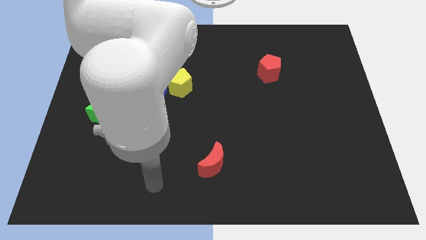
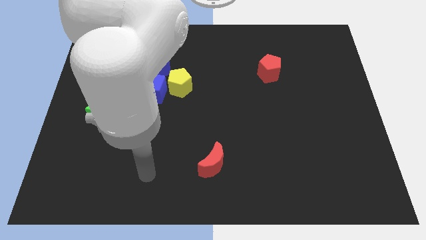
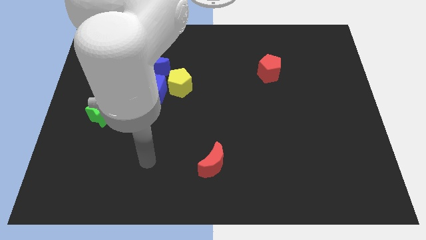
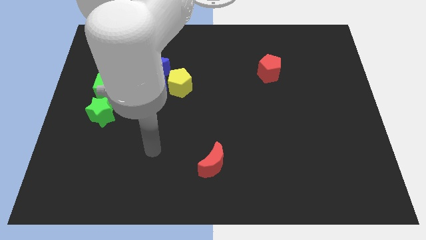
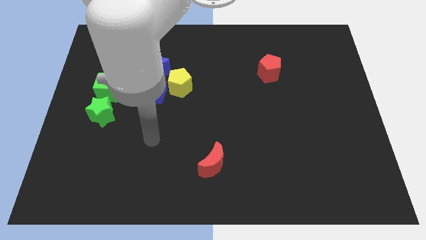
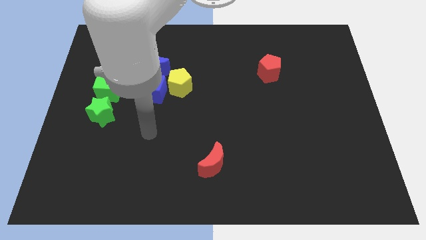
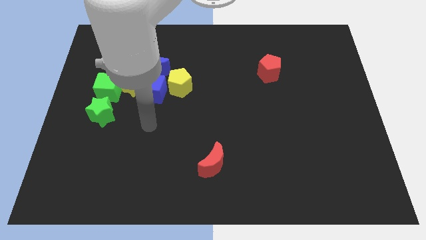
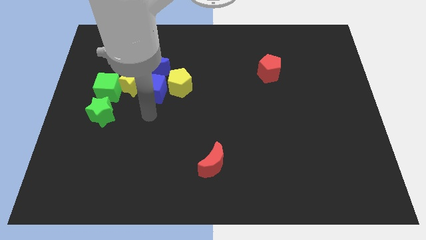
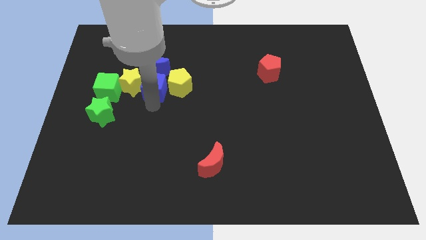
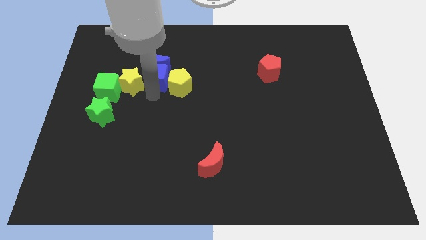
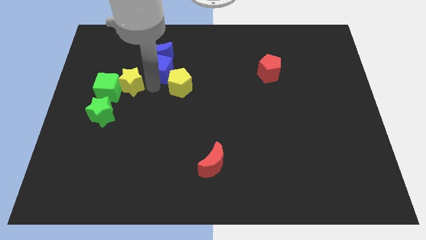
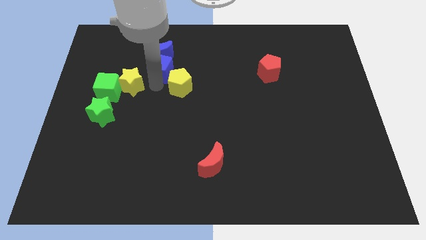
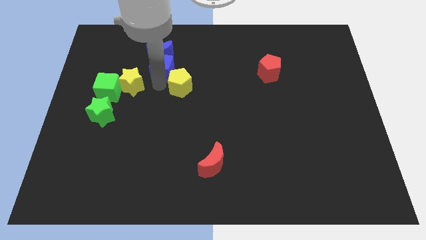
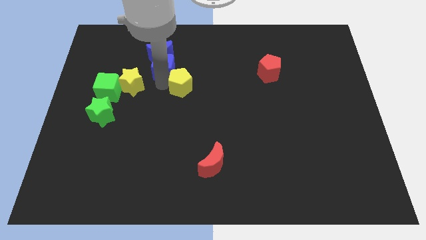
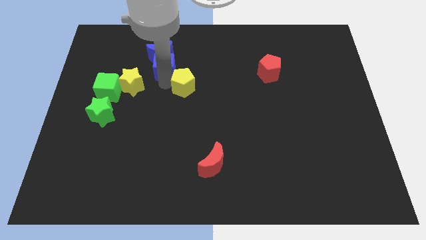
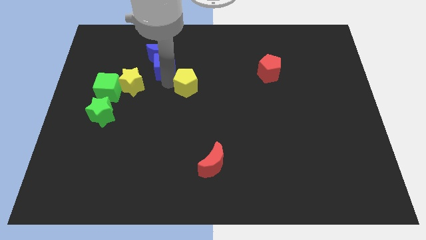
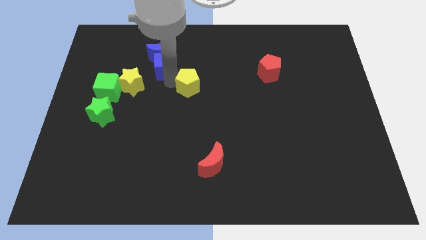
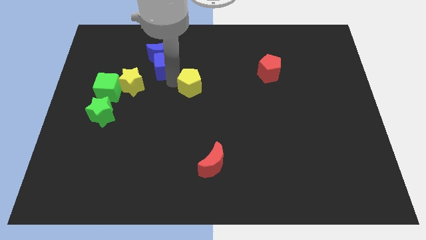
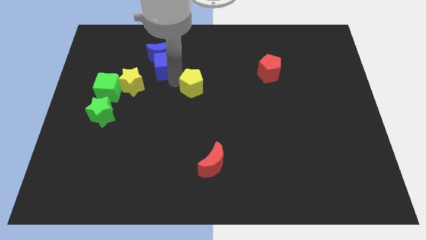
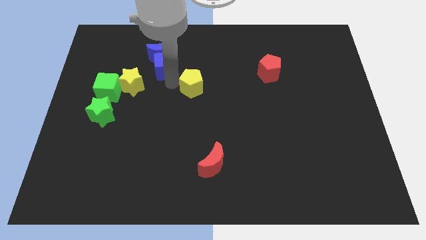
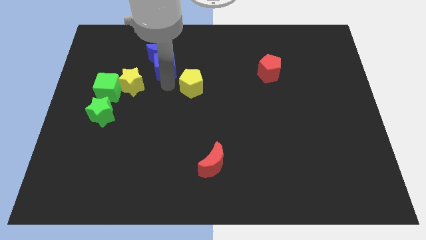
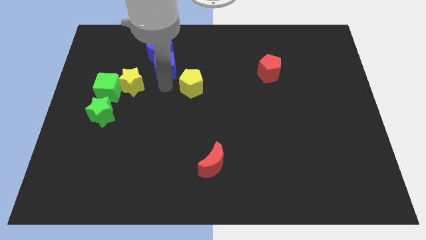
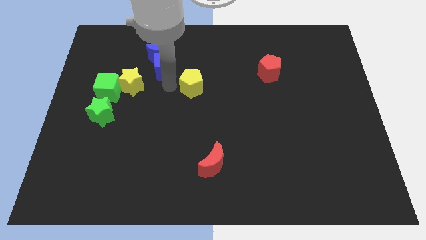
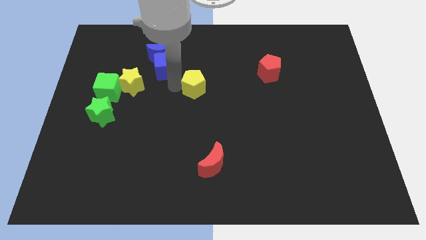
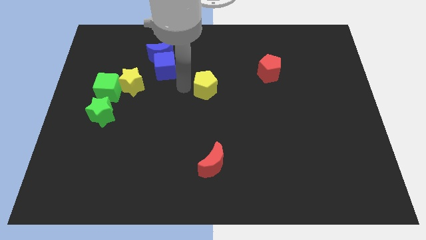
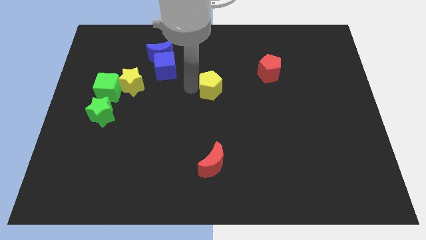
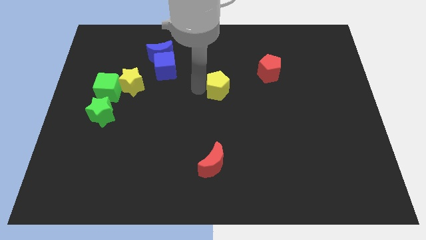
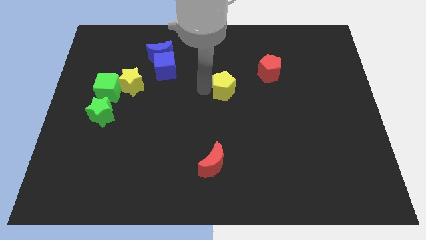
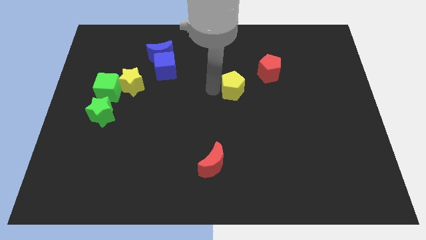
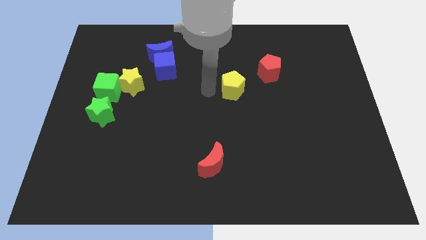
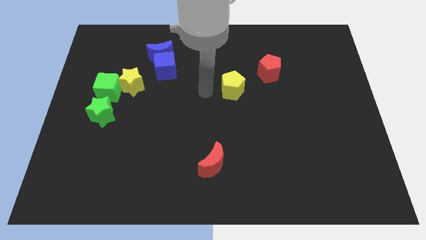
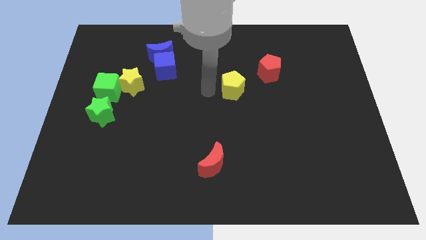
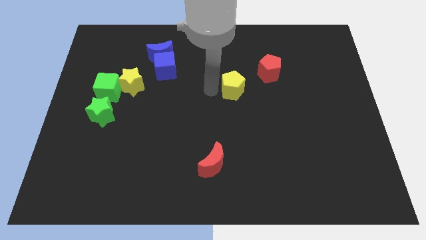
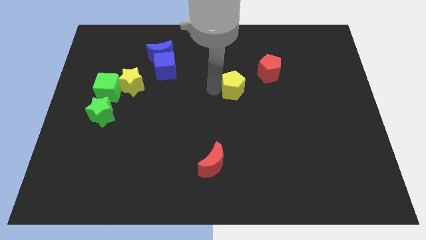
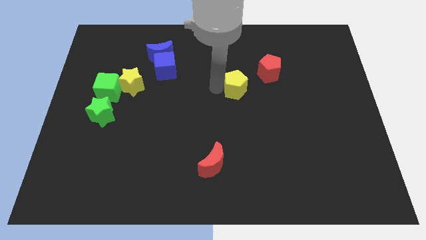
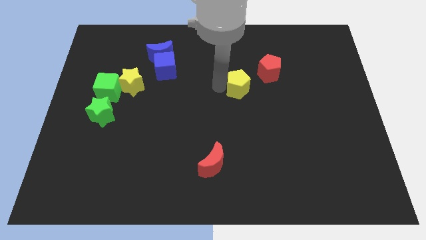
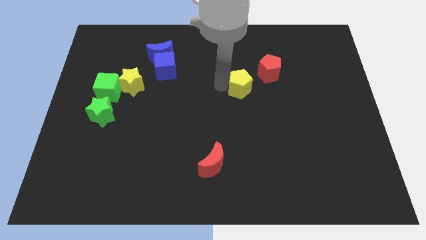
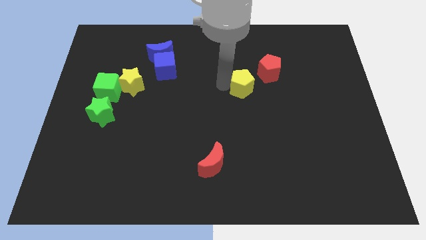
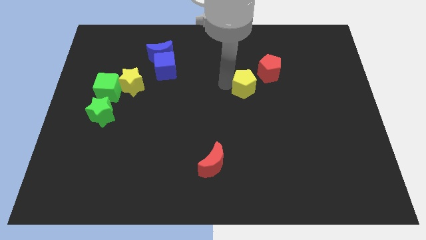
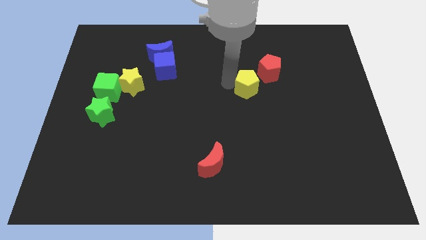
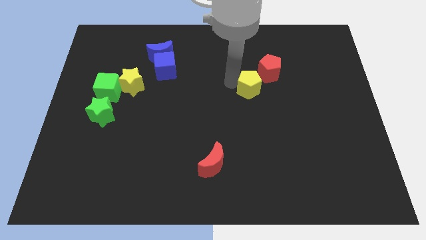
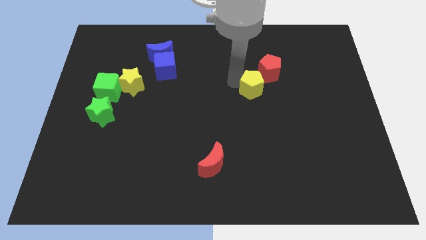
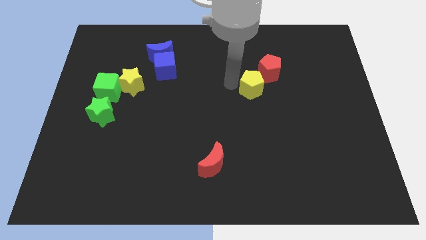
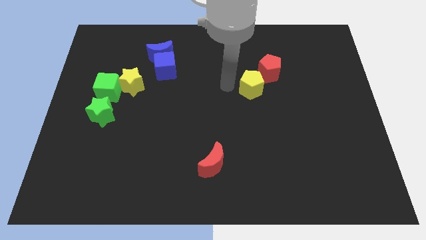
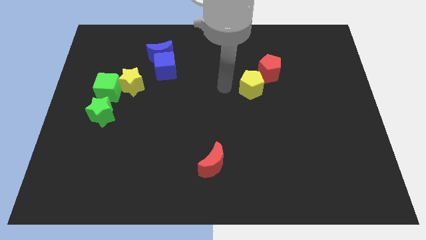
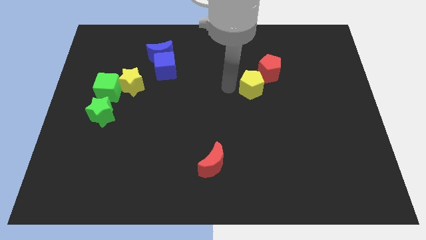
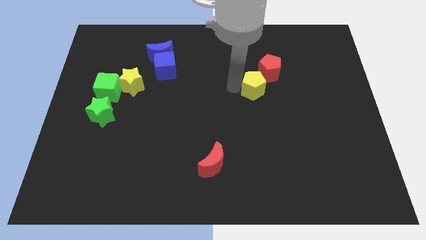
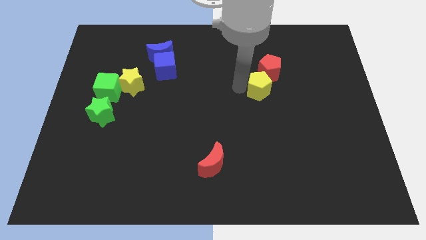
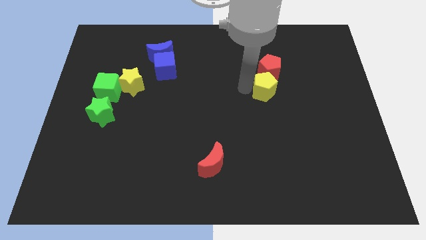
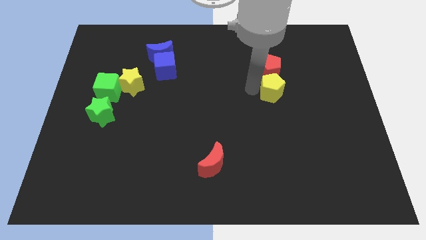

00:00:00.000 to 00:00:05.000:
put the yellow pentagon to the bottom right side of the red pentagon

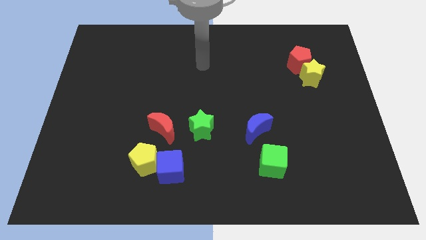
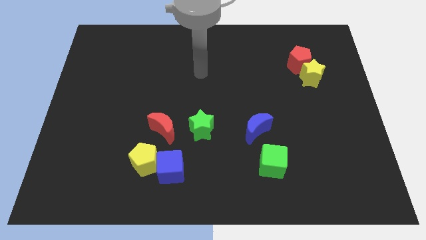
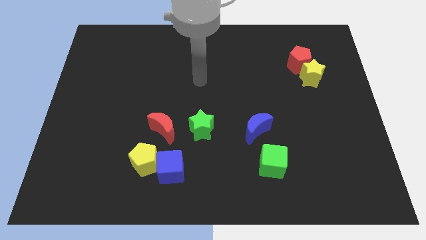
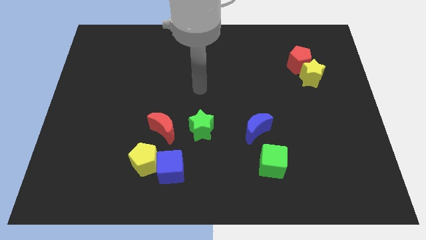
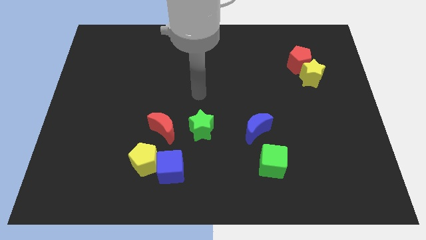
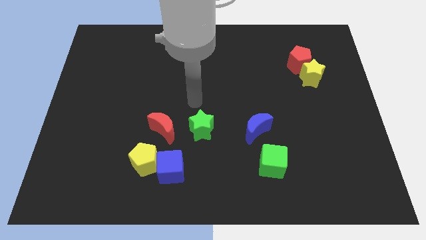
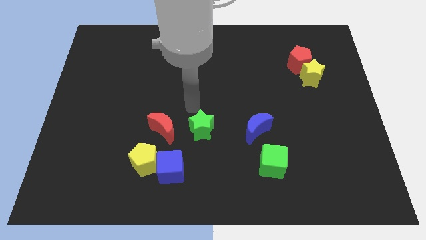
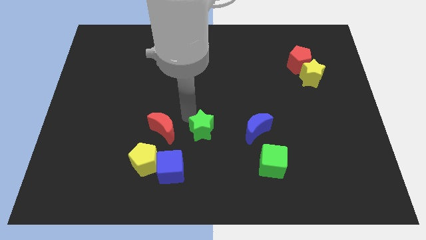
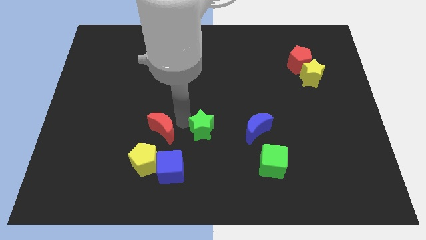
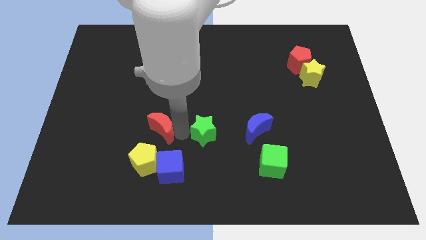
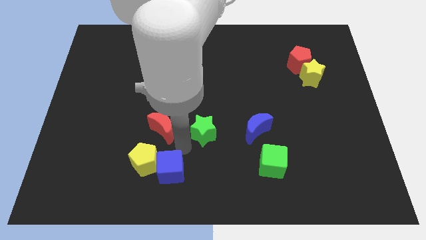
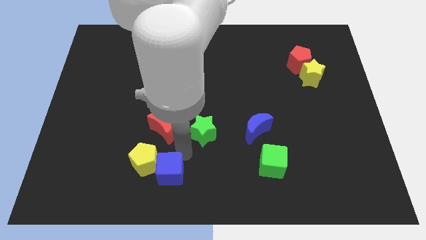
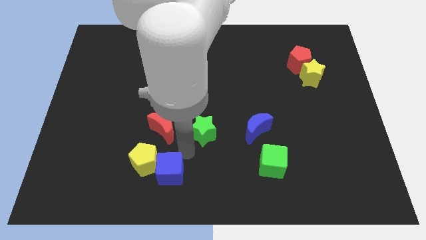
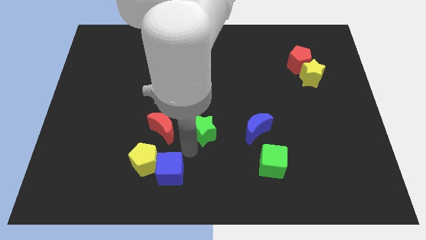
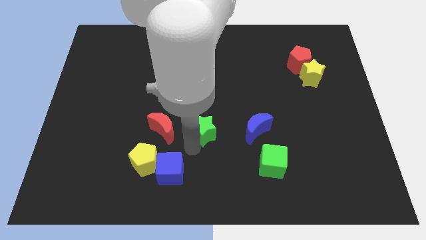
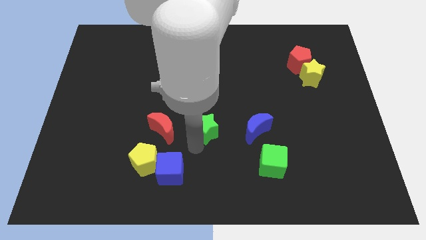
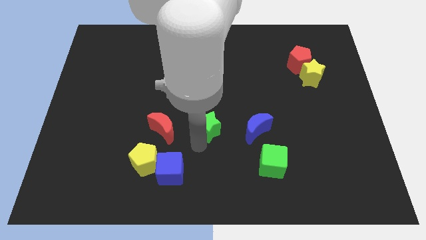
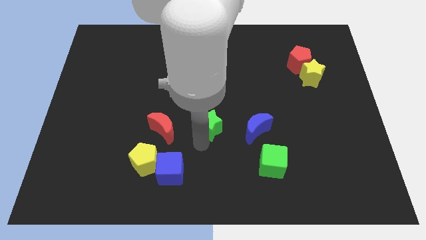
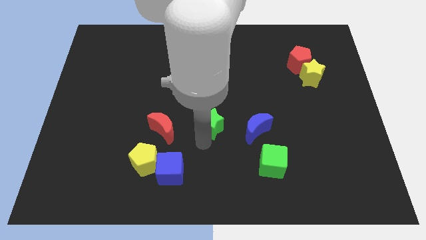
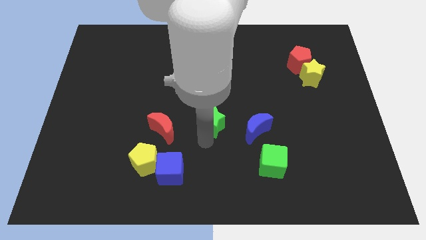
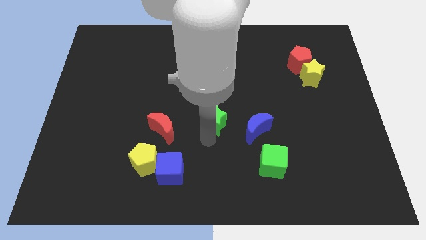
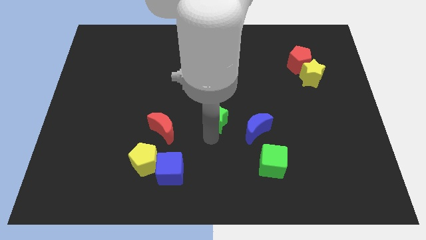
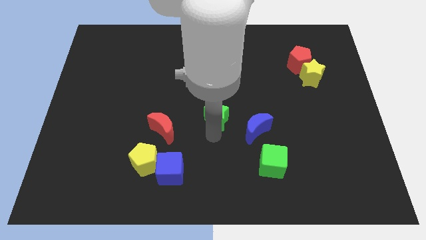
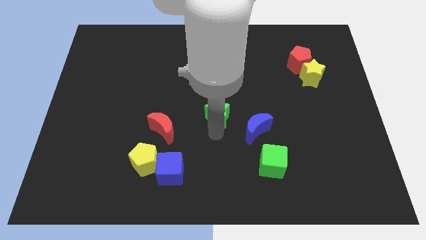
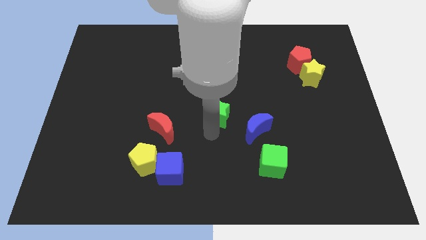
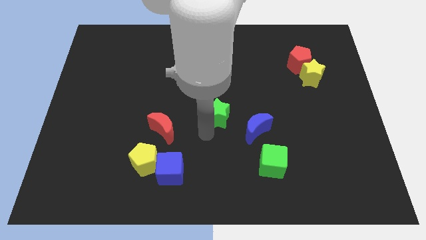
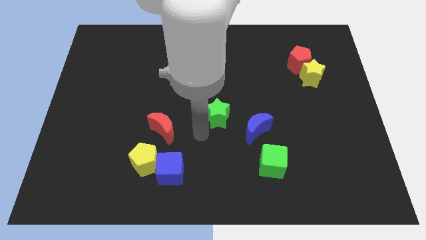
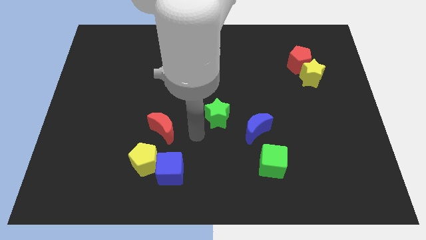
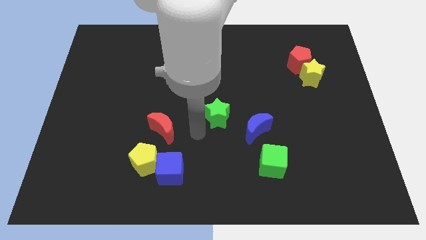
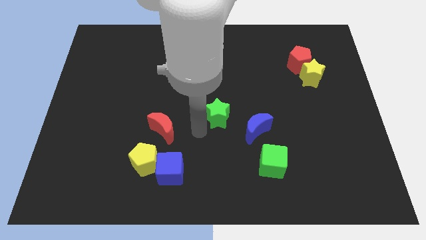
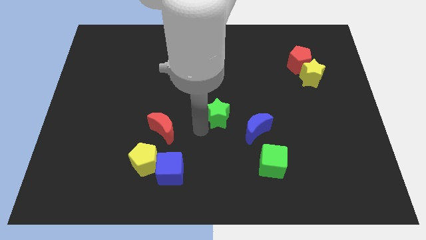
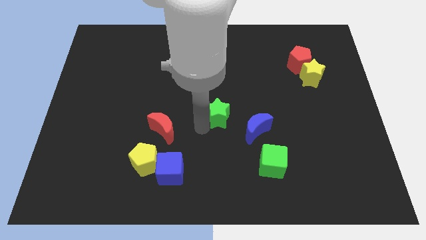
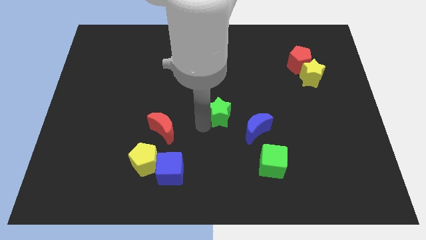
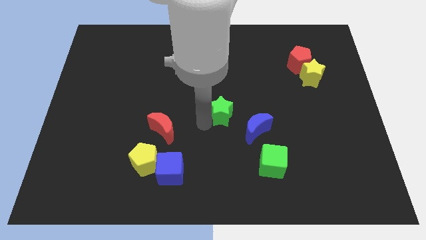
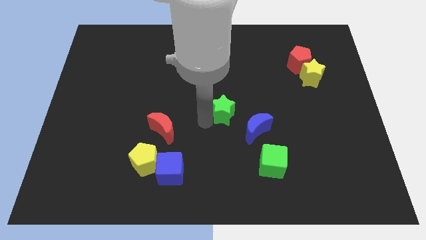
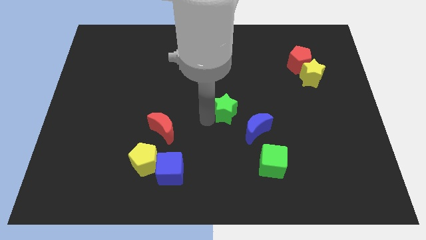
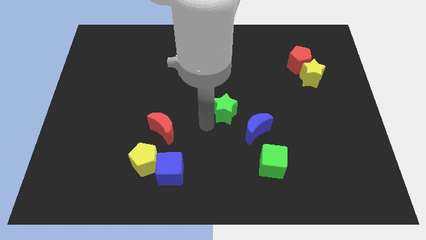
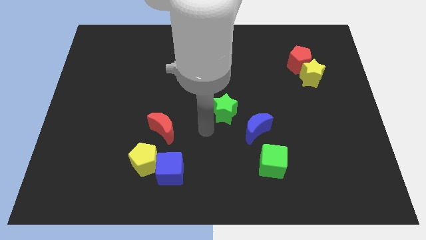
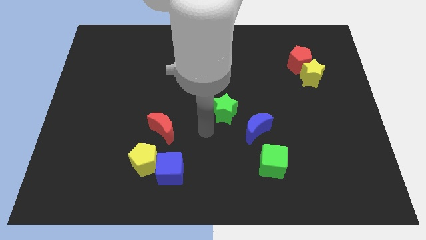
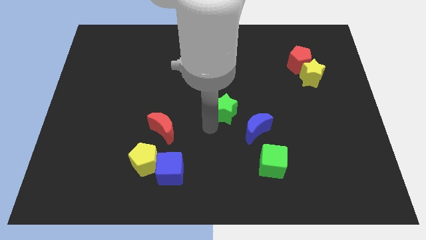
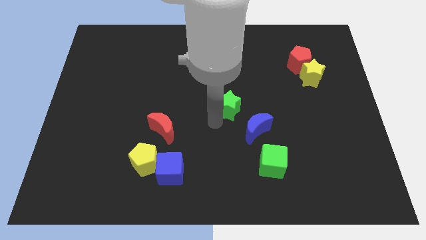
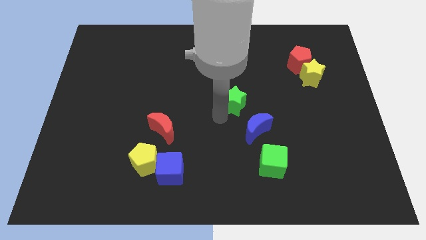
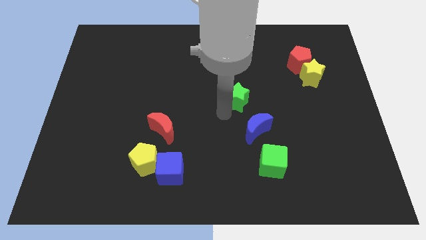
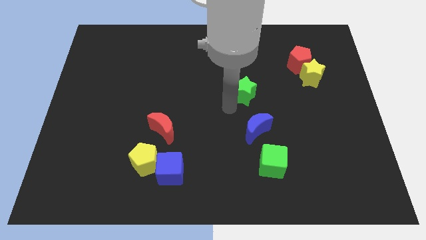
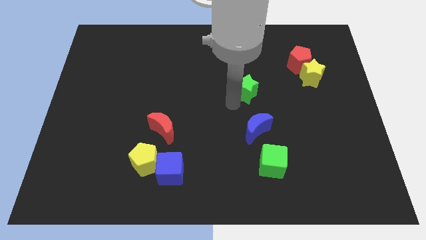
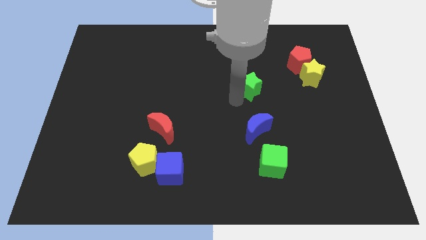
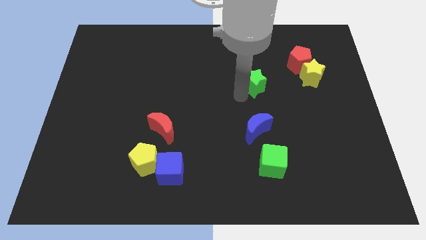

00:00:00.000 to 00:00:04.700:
slide the green star to the left side of the yellow star
